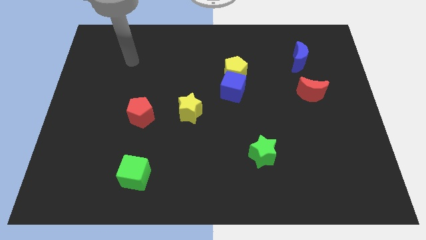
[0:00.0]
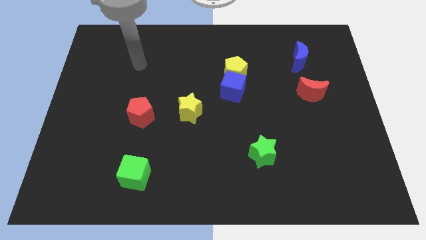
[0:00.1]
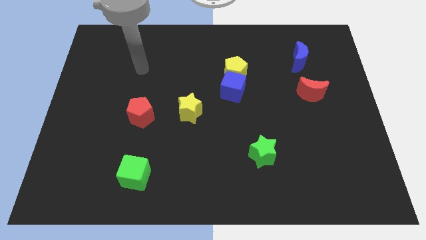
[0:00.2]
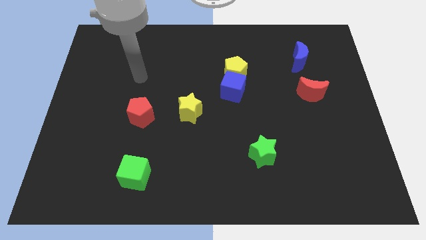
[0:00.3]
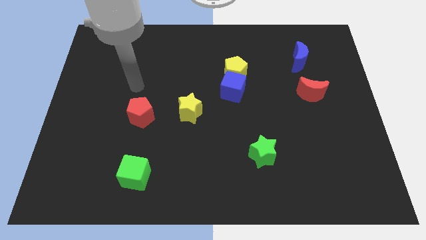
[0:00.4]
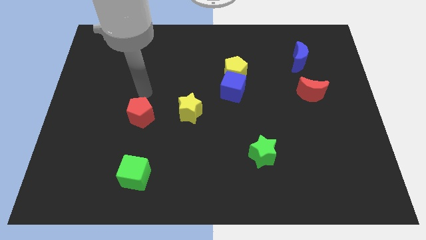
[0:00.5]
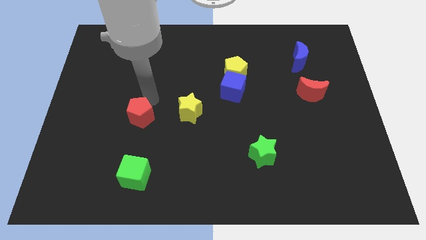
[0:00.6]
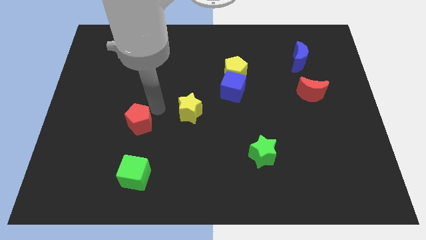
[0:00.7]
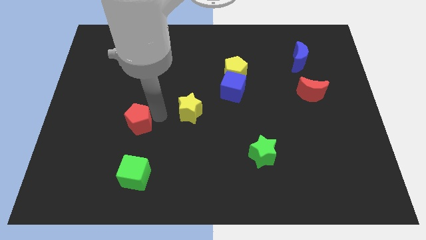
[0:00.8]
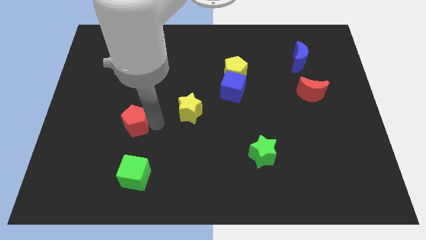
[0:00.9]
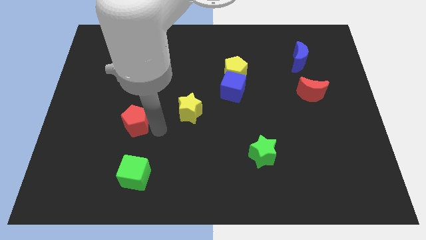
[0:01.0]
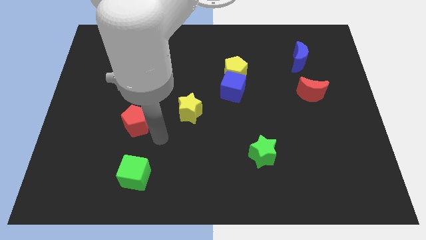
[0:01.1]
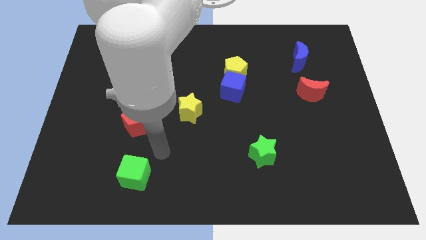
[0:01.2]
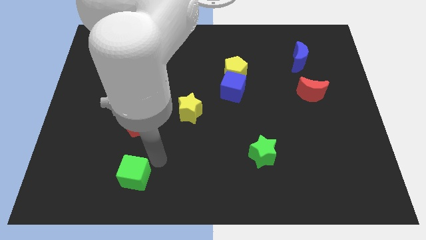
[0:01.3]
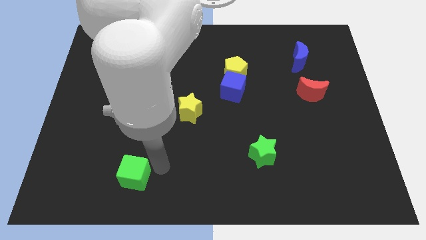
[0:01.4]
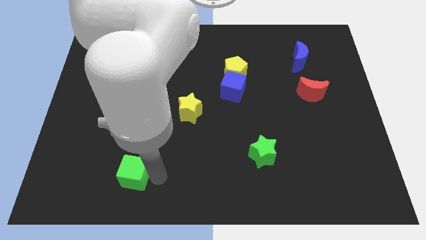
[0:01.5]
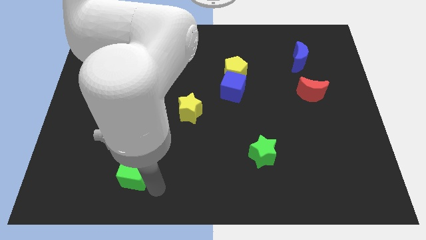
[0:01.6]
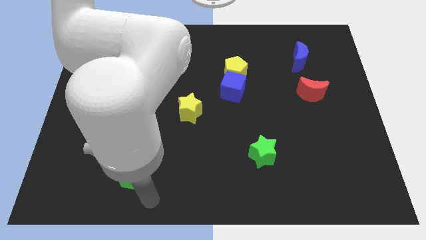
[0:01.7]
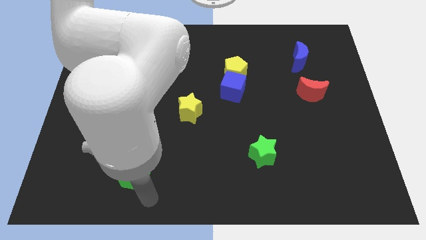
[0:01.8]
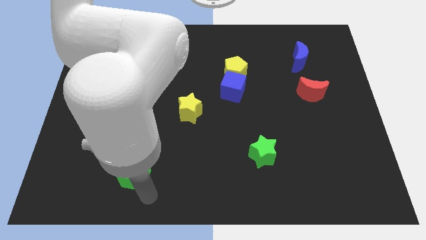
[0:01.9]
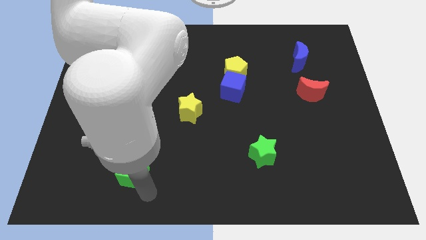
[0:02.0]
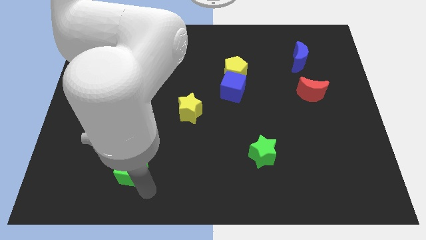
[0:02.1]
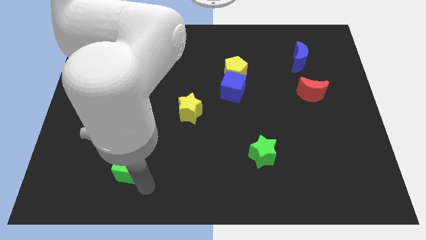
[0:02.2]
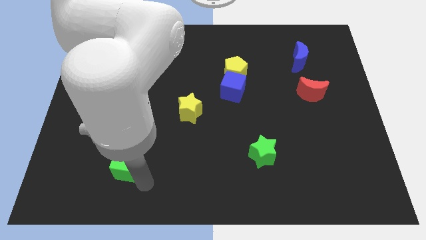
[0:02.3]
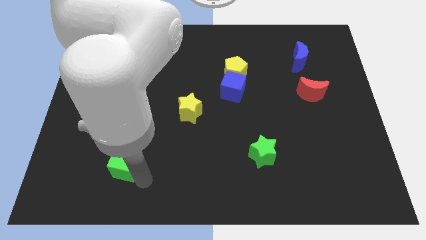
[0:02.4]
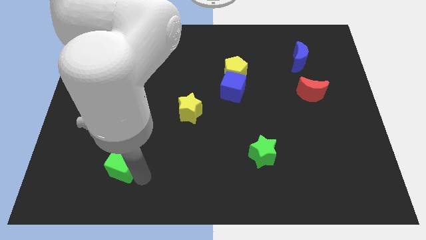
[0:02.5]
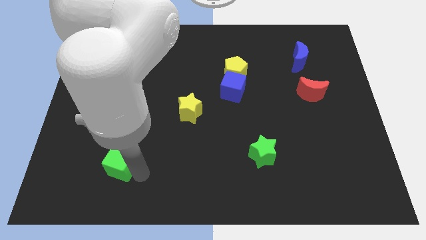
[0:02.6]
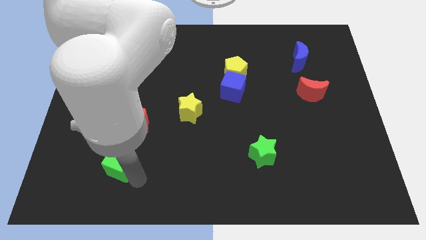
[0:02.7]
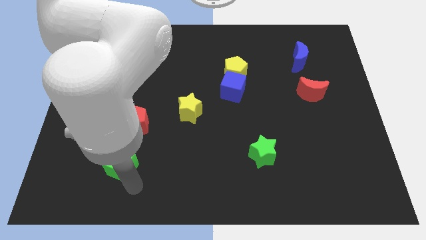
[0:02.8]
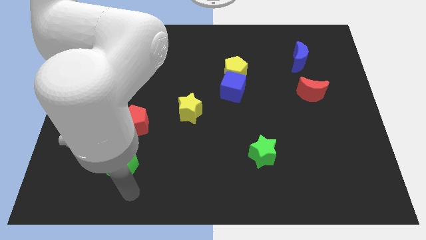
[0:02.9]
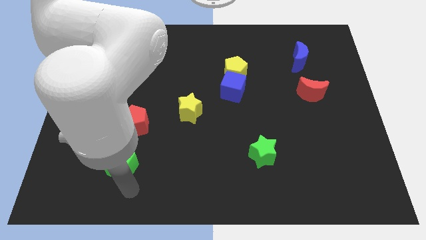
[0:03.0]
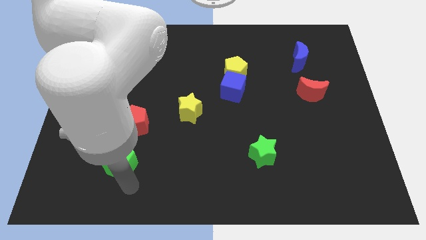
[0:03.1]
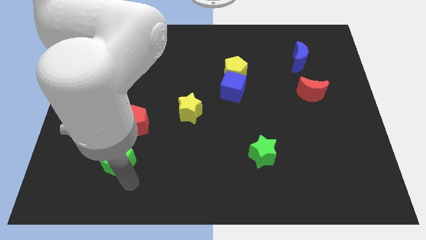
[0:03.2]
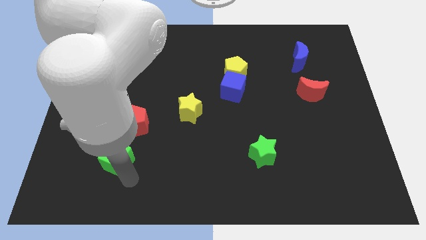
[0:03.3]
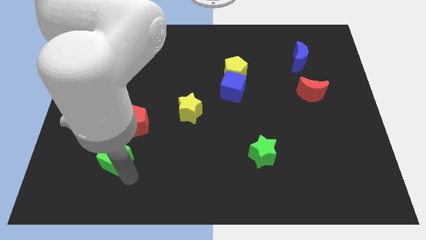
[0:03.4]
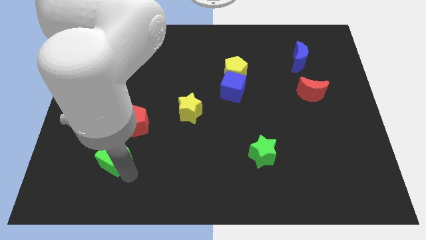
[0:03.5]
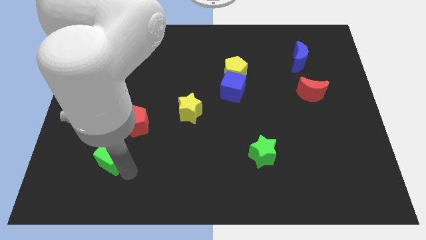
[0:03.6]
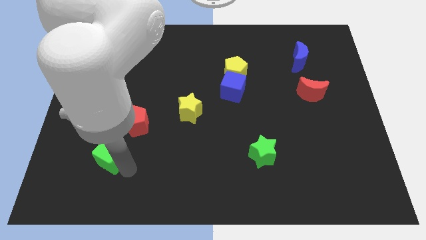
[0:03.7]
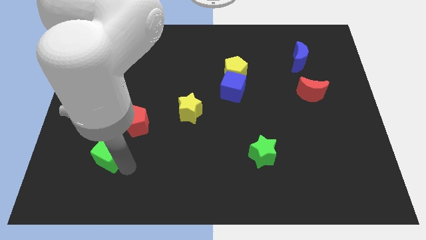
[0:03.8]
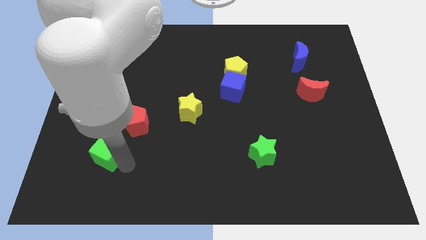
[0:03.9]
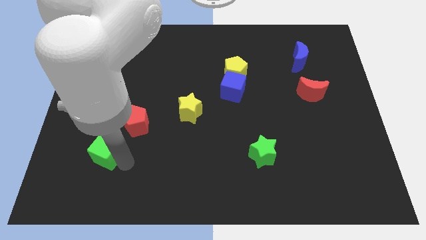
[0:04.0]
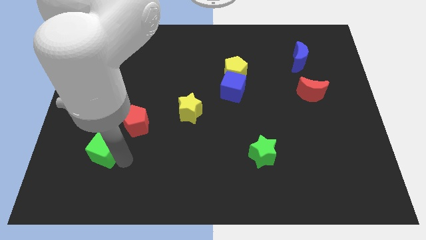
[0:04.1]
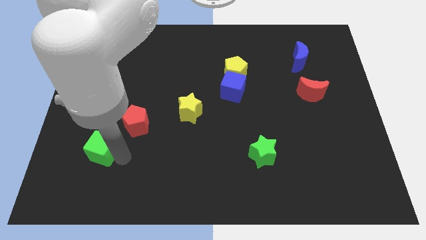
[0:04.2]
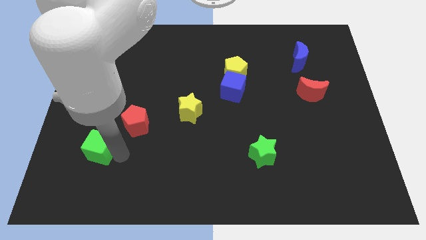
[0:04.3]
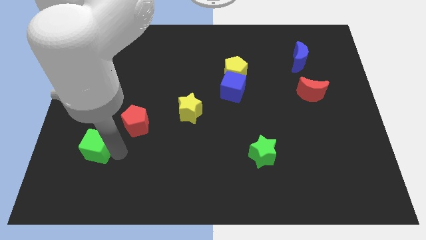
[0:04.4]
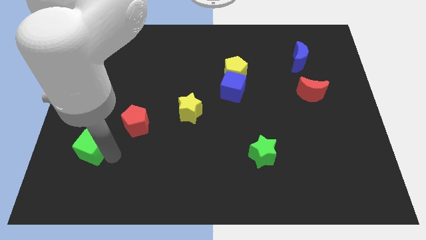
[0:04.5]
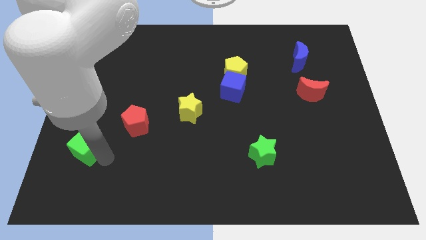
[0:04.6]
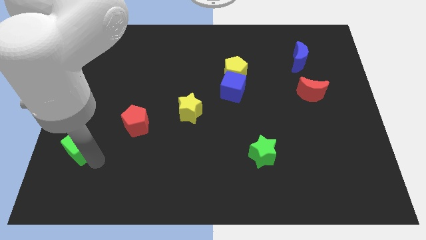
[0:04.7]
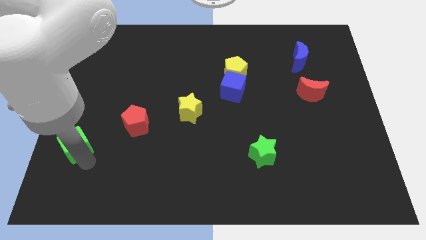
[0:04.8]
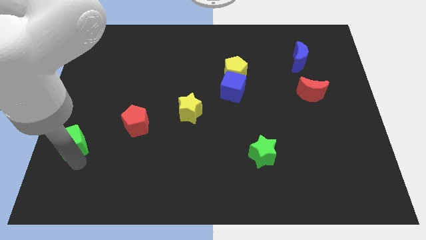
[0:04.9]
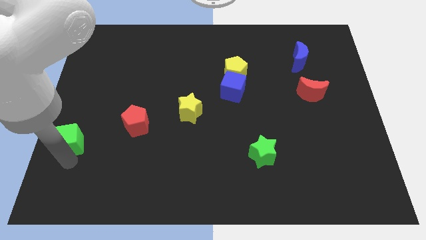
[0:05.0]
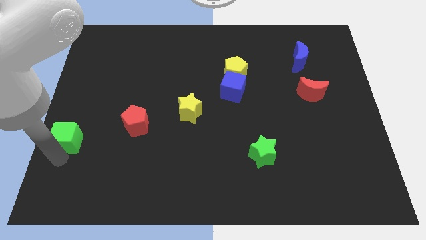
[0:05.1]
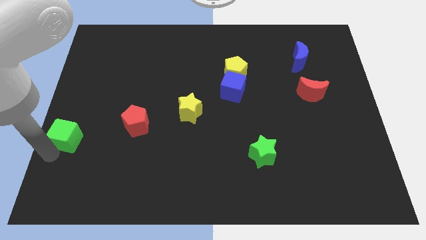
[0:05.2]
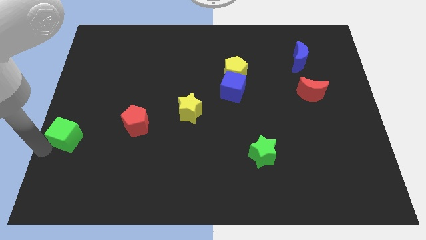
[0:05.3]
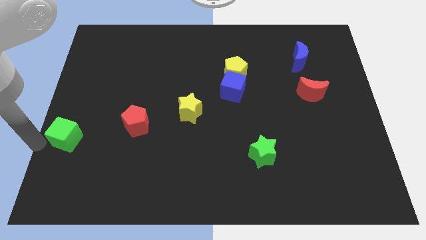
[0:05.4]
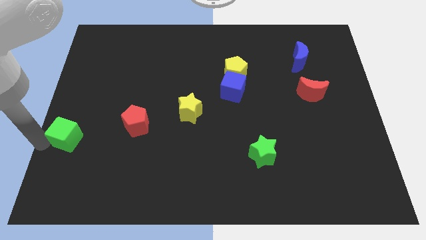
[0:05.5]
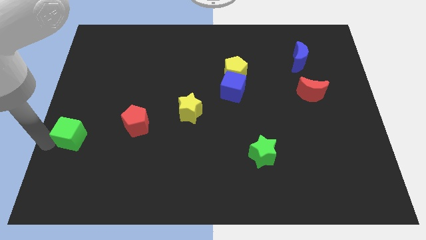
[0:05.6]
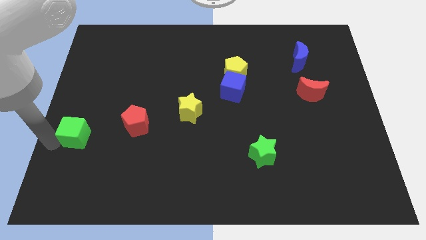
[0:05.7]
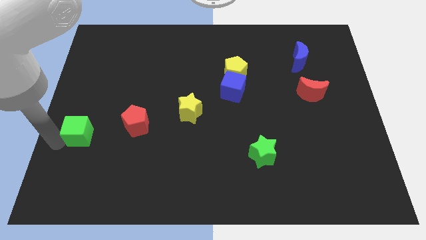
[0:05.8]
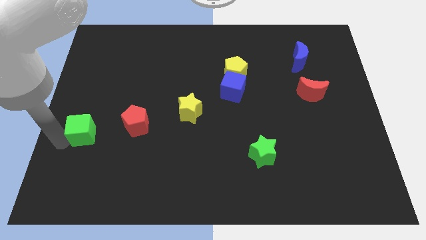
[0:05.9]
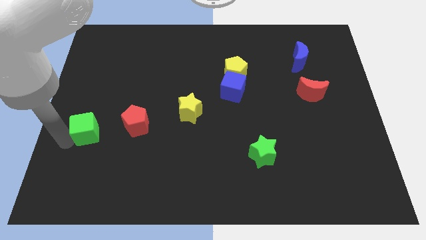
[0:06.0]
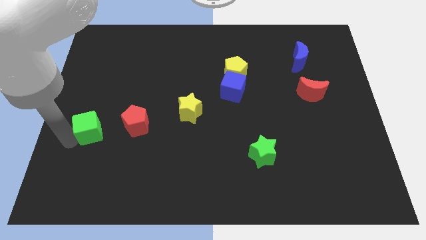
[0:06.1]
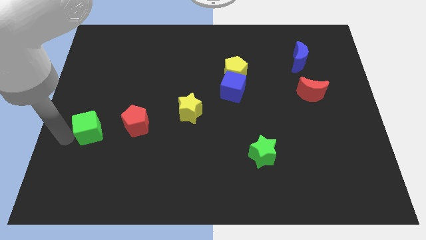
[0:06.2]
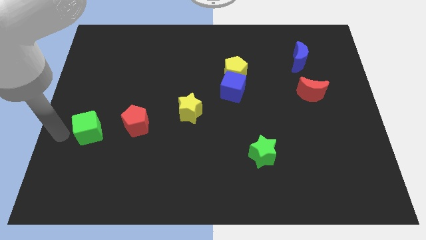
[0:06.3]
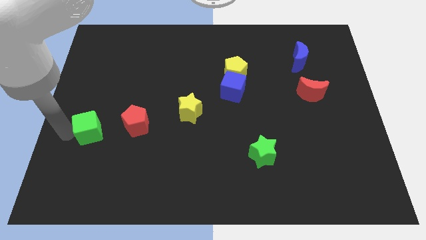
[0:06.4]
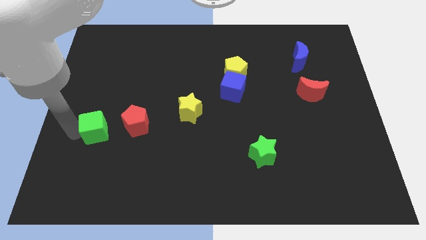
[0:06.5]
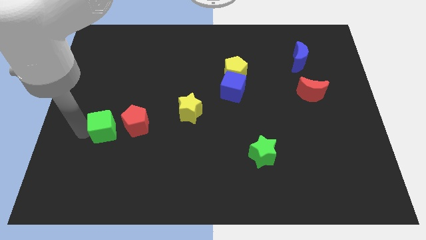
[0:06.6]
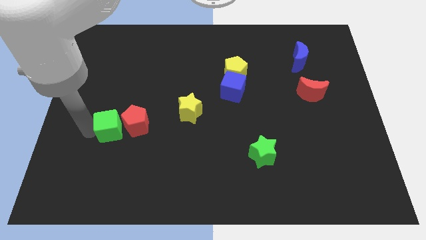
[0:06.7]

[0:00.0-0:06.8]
move the green cube diagonally up and to the left of the red pentagon

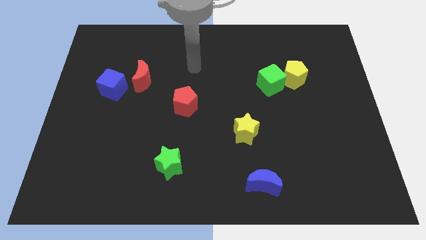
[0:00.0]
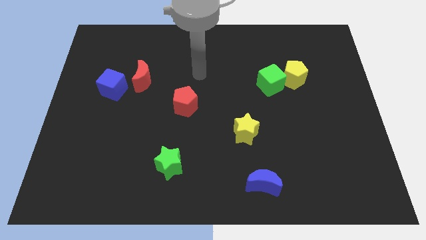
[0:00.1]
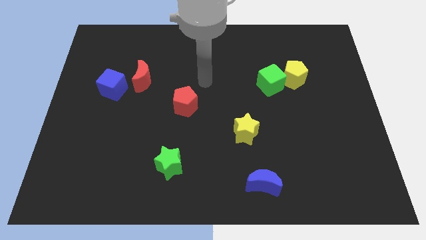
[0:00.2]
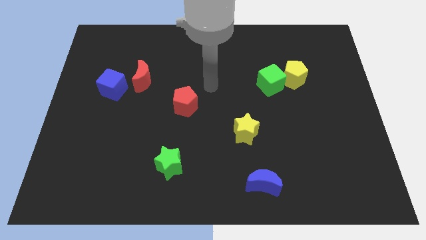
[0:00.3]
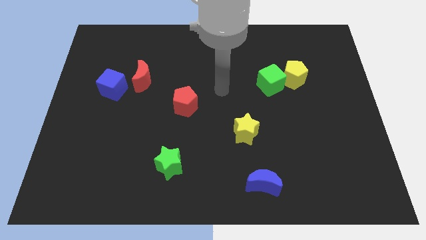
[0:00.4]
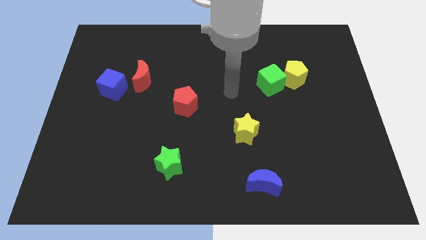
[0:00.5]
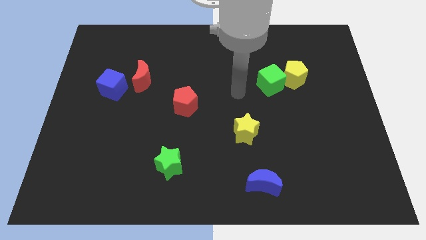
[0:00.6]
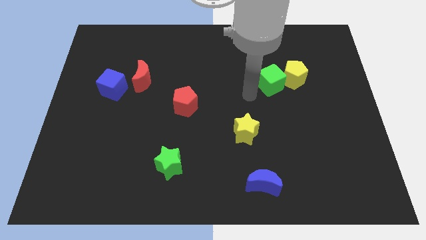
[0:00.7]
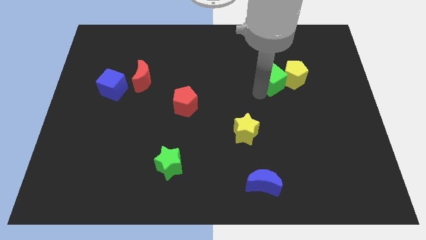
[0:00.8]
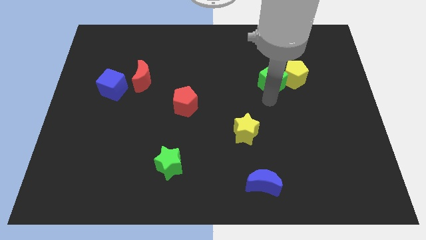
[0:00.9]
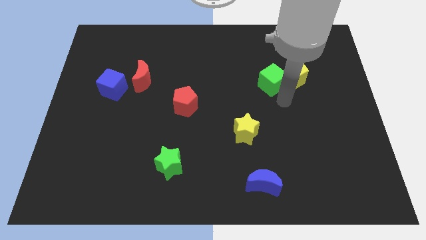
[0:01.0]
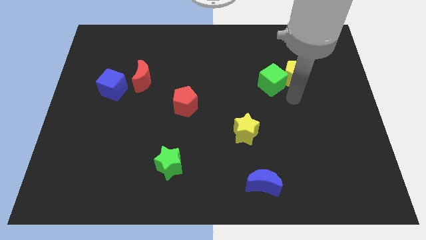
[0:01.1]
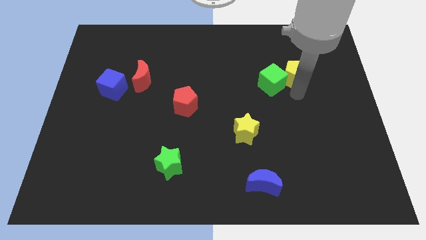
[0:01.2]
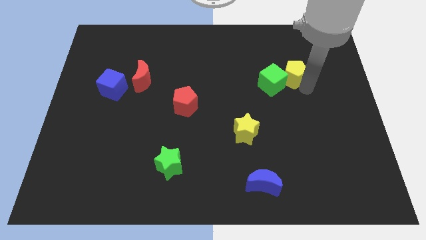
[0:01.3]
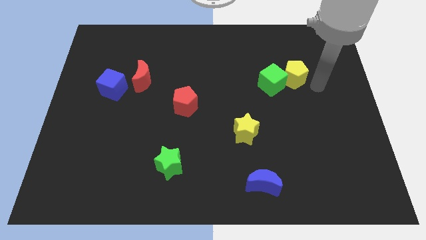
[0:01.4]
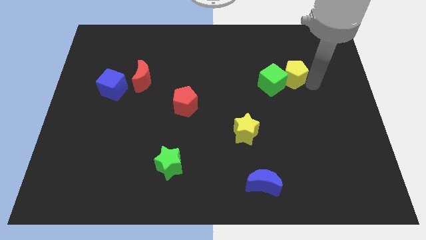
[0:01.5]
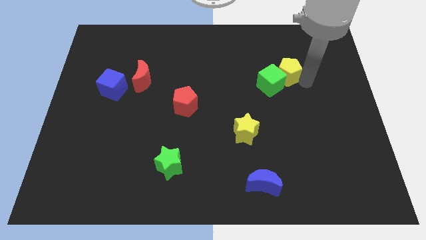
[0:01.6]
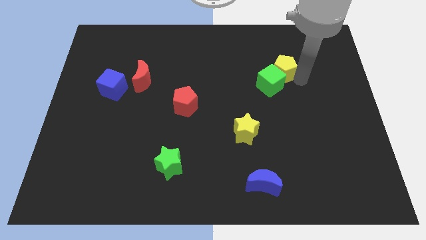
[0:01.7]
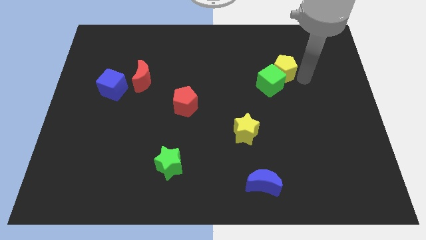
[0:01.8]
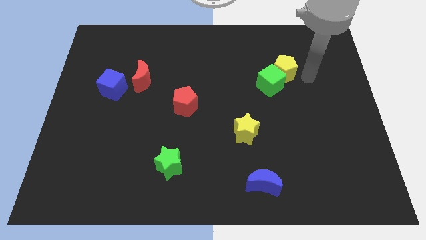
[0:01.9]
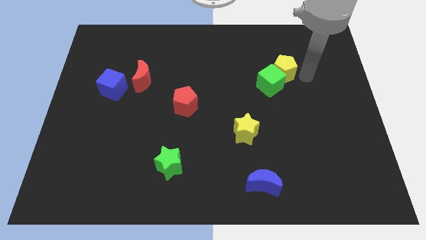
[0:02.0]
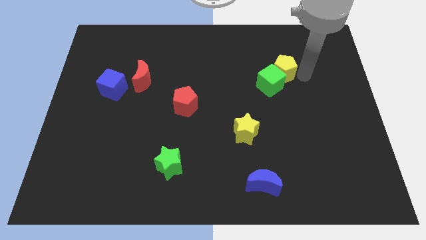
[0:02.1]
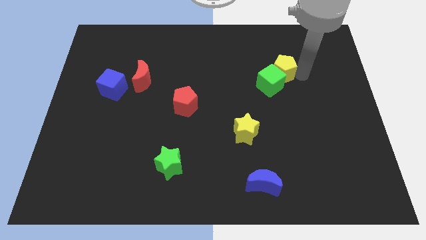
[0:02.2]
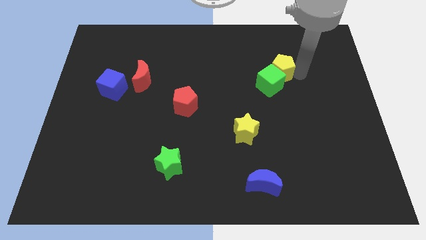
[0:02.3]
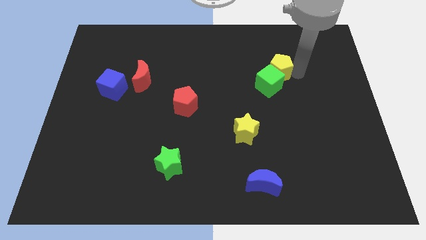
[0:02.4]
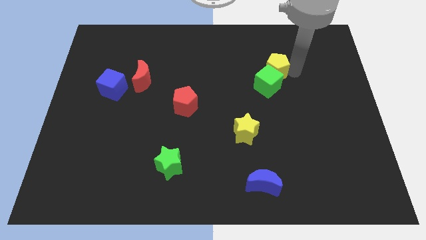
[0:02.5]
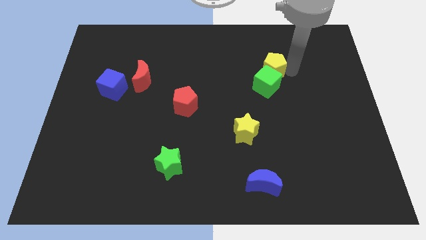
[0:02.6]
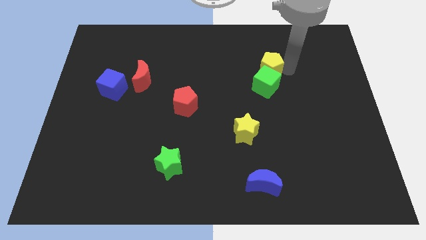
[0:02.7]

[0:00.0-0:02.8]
slide the yellow pentagon diagonally up and to the left of the green cube
